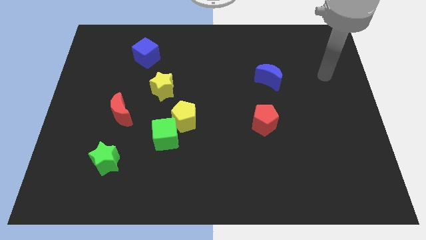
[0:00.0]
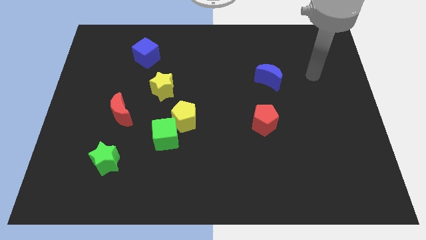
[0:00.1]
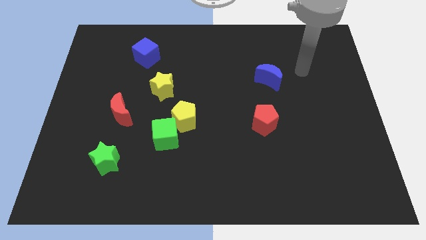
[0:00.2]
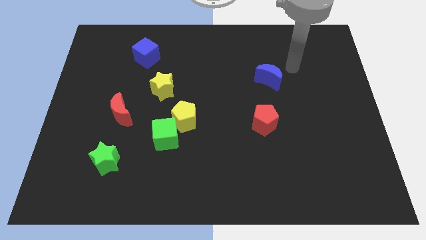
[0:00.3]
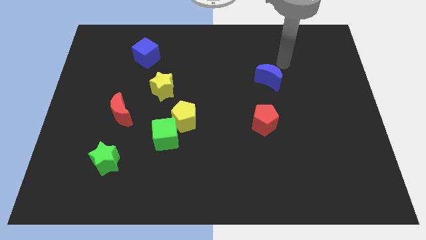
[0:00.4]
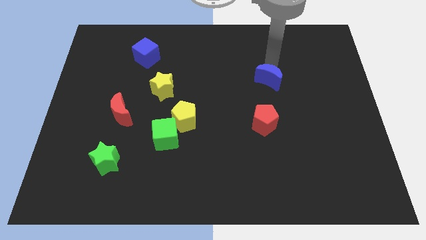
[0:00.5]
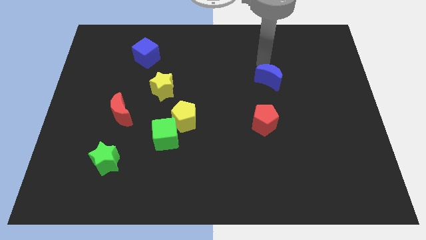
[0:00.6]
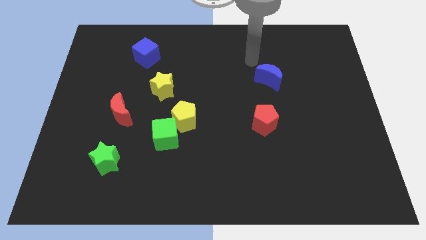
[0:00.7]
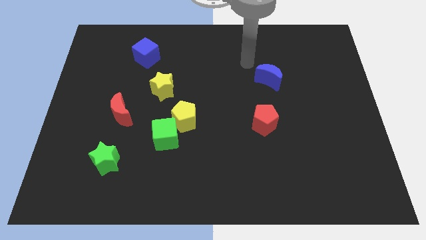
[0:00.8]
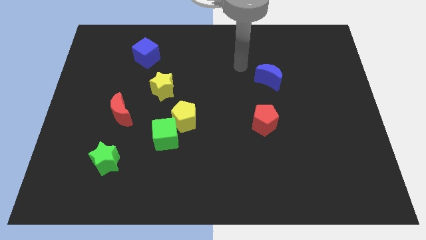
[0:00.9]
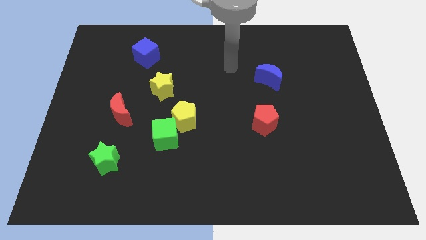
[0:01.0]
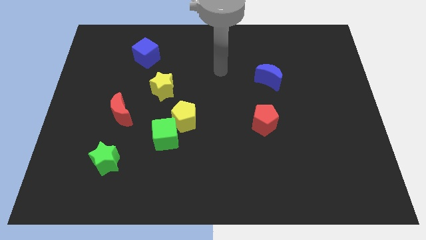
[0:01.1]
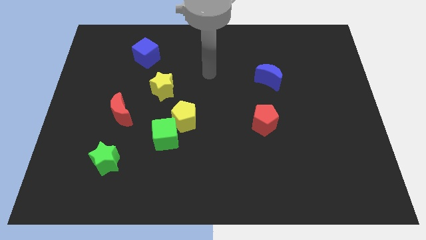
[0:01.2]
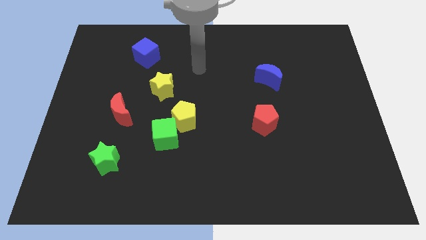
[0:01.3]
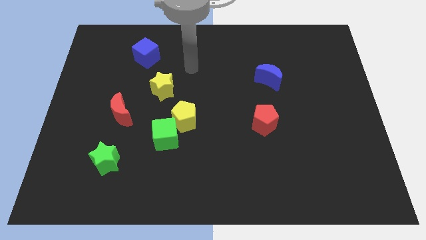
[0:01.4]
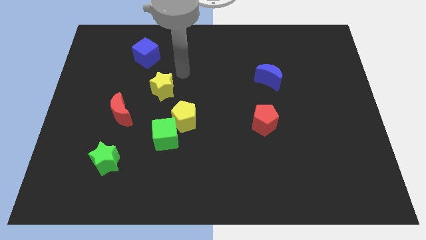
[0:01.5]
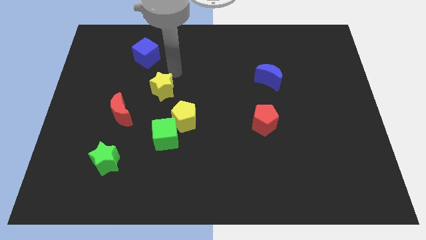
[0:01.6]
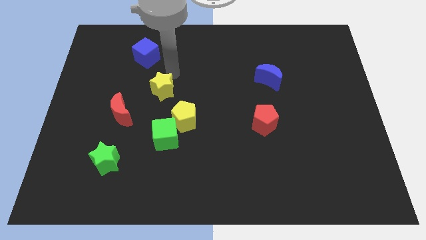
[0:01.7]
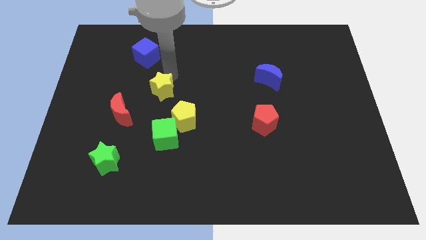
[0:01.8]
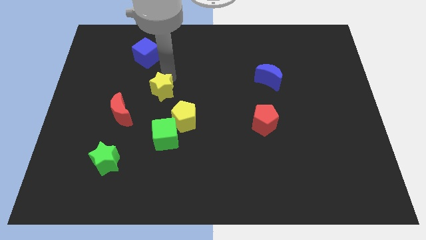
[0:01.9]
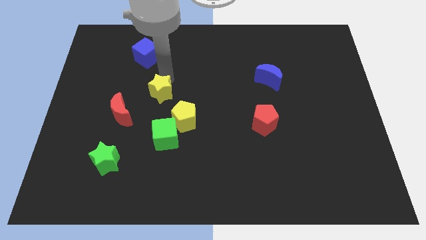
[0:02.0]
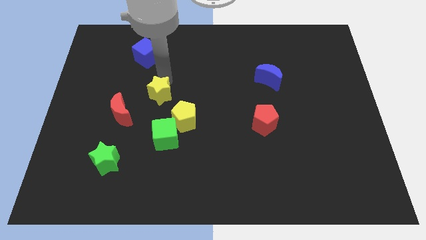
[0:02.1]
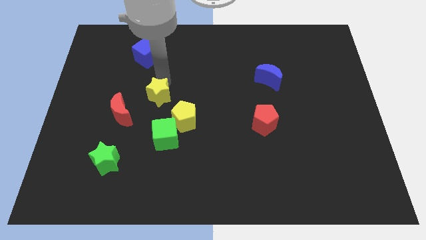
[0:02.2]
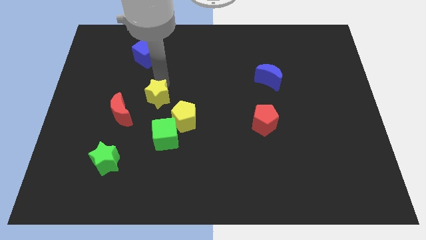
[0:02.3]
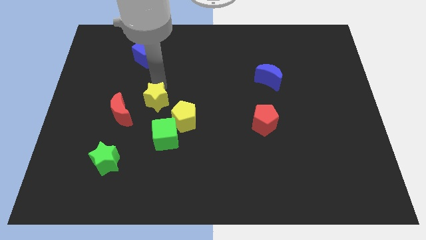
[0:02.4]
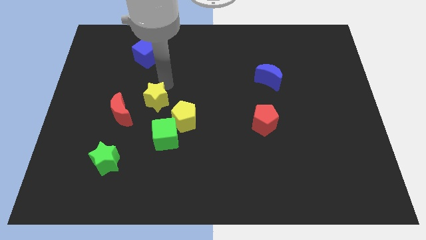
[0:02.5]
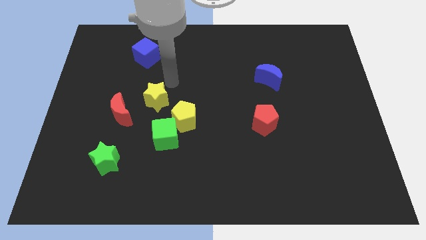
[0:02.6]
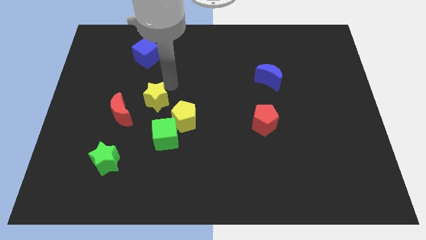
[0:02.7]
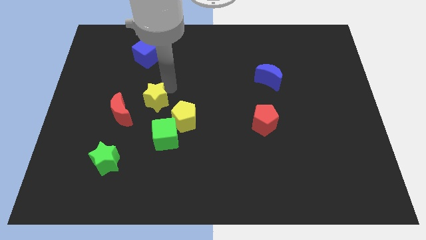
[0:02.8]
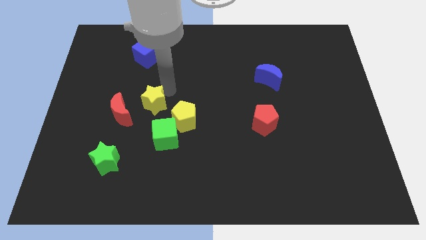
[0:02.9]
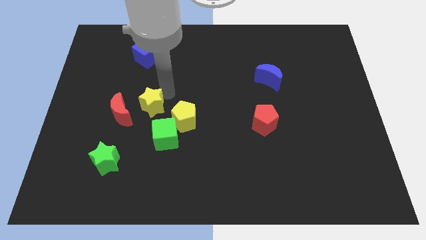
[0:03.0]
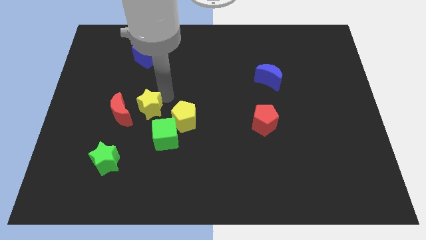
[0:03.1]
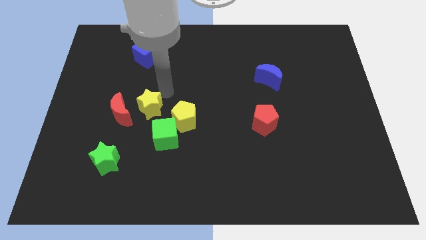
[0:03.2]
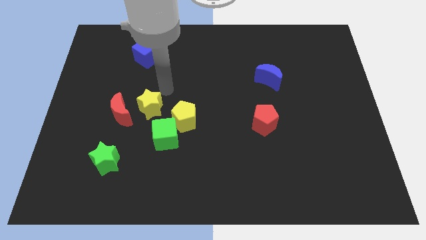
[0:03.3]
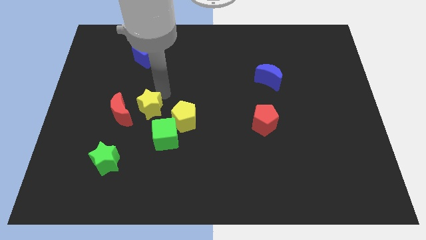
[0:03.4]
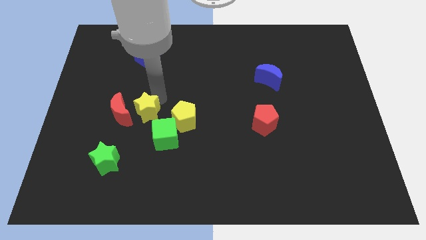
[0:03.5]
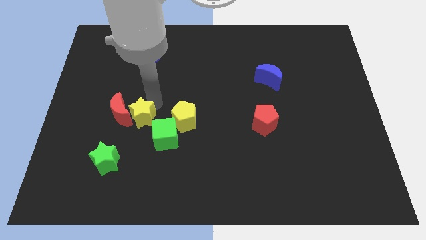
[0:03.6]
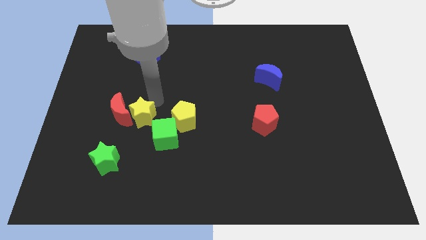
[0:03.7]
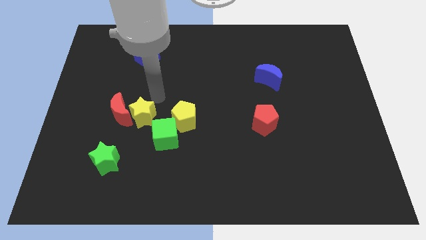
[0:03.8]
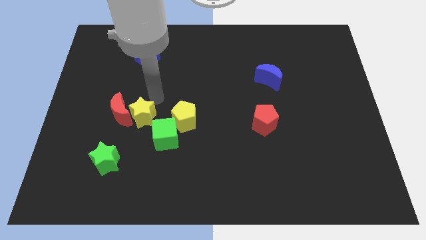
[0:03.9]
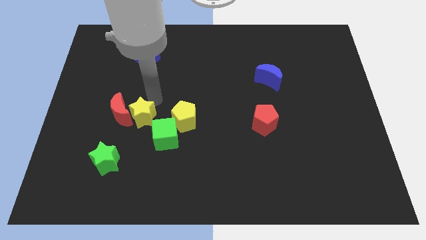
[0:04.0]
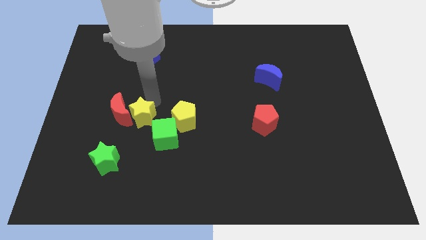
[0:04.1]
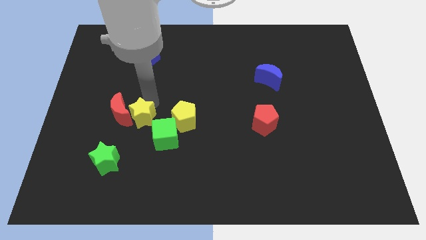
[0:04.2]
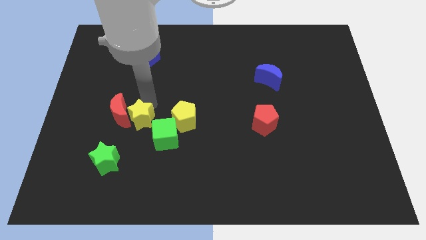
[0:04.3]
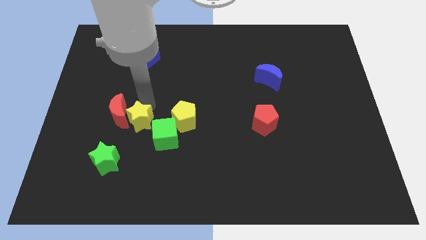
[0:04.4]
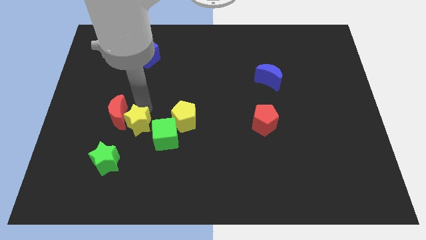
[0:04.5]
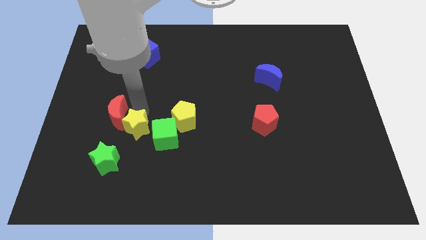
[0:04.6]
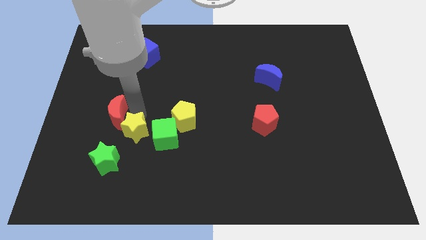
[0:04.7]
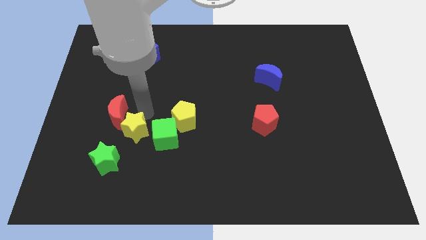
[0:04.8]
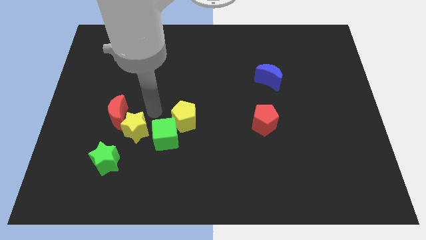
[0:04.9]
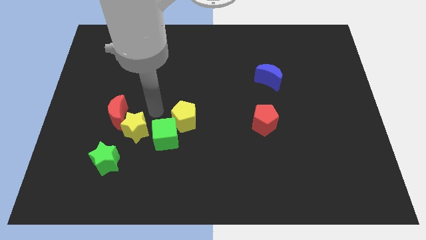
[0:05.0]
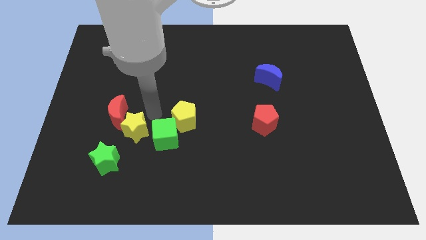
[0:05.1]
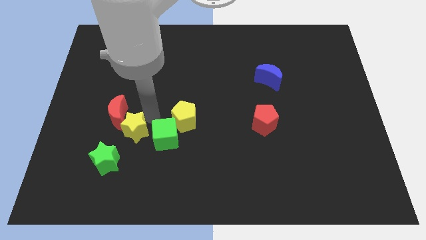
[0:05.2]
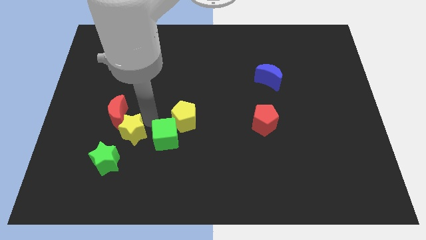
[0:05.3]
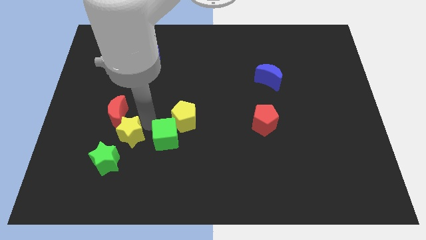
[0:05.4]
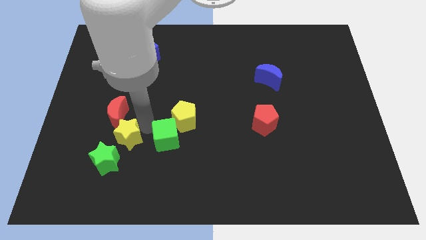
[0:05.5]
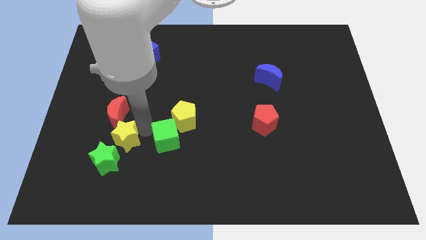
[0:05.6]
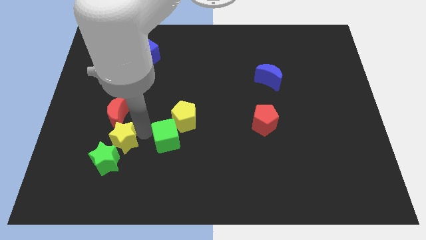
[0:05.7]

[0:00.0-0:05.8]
move the yellow star to the green star

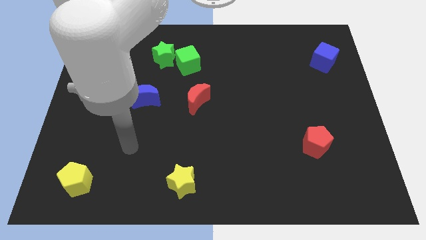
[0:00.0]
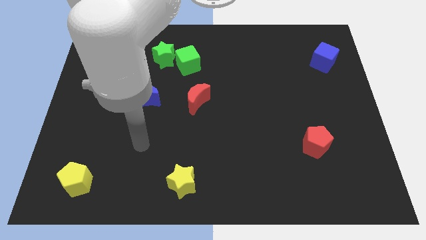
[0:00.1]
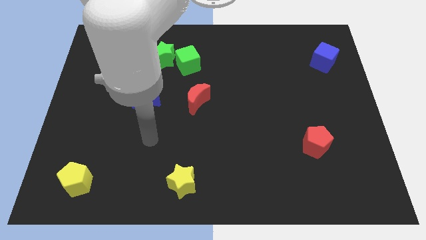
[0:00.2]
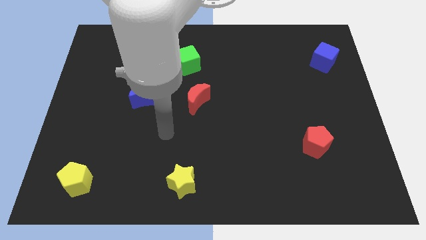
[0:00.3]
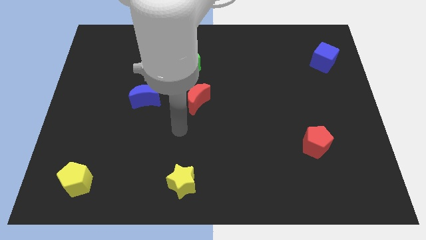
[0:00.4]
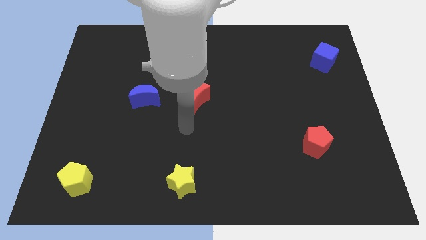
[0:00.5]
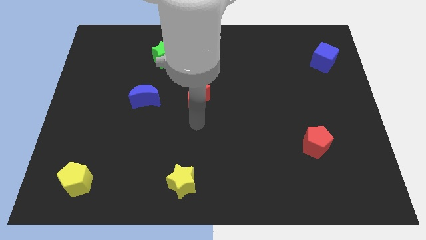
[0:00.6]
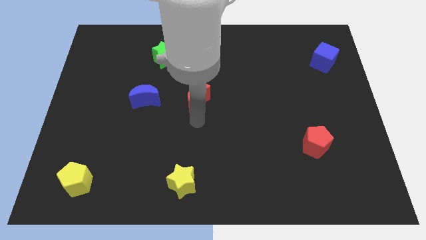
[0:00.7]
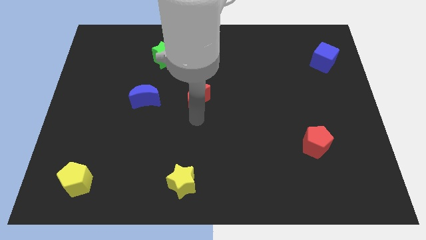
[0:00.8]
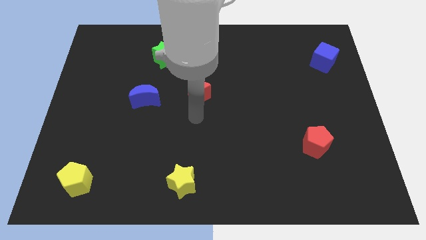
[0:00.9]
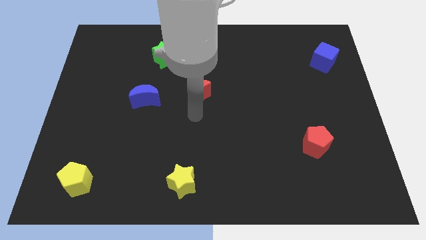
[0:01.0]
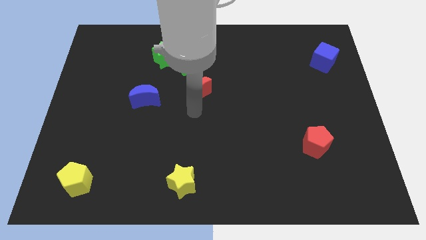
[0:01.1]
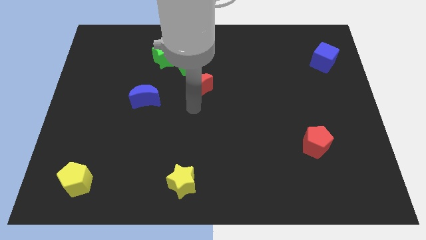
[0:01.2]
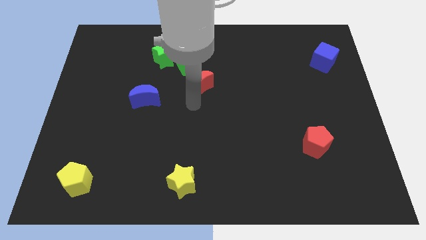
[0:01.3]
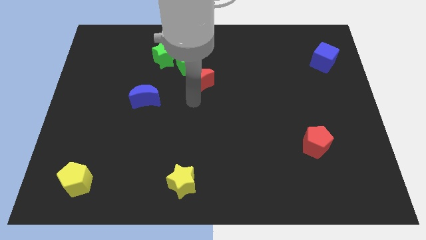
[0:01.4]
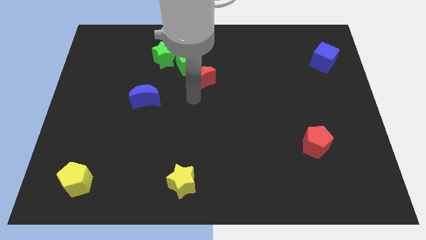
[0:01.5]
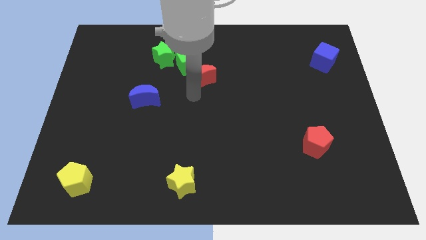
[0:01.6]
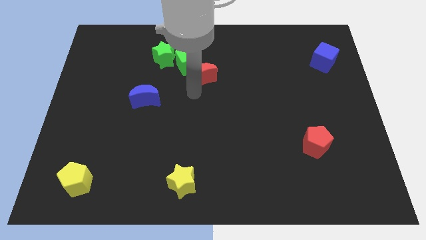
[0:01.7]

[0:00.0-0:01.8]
slide the red moon close to the green cube
